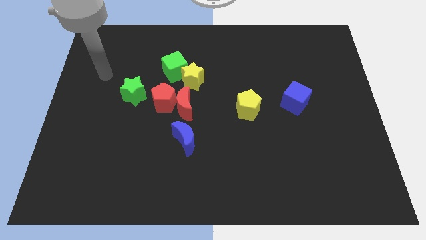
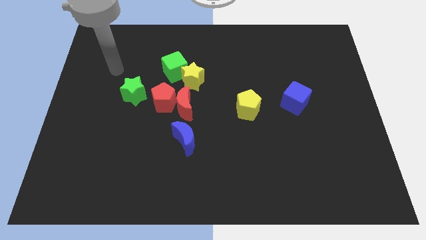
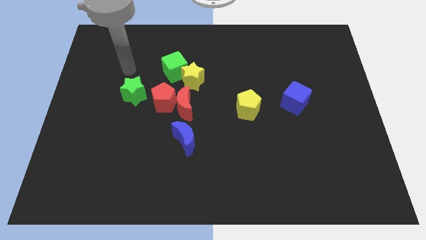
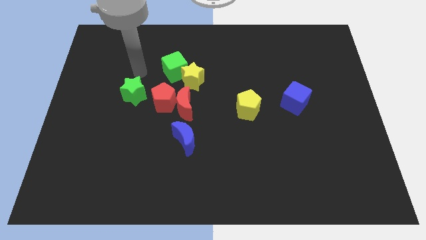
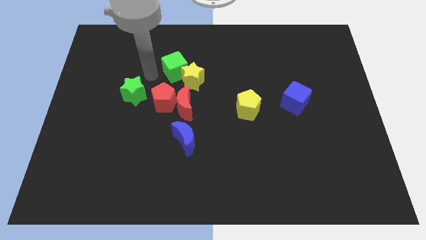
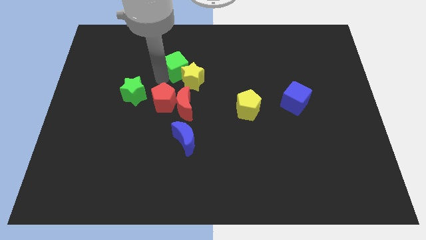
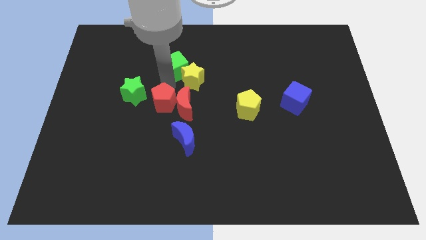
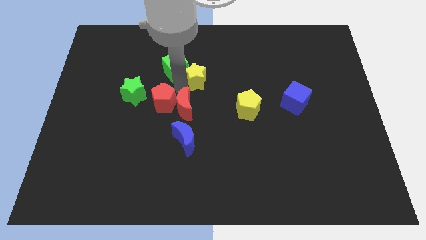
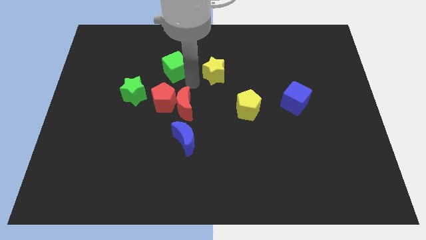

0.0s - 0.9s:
pull the green cube apart from the yellow star

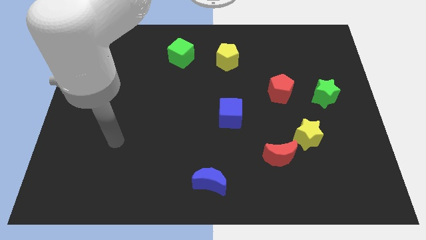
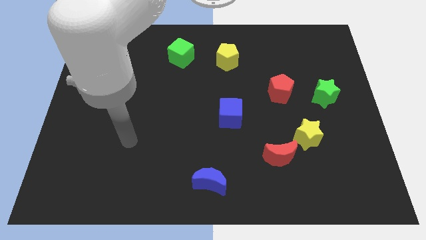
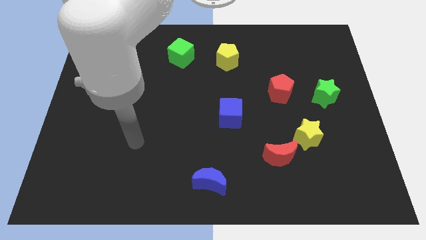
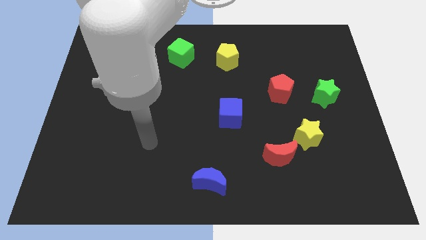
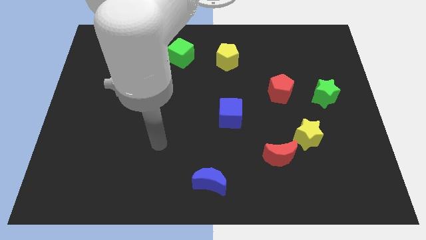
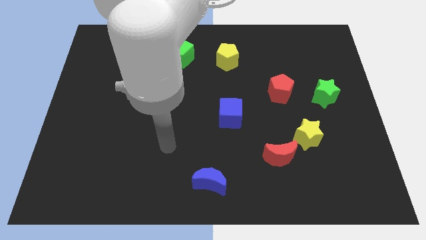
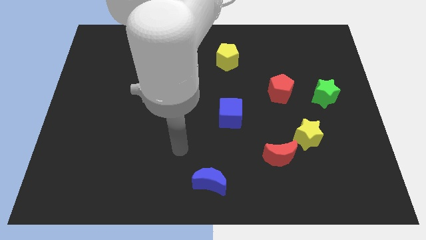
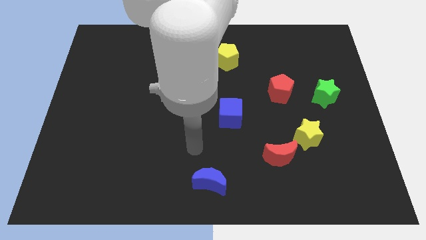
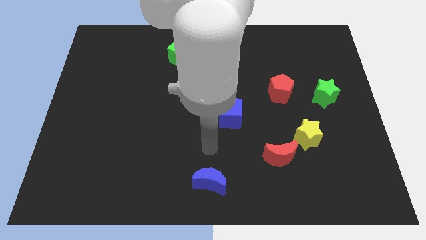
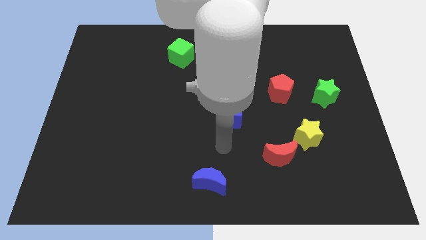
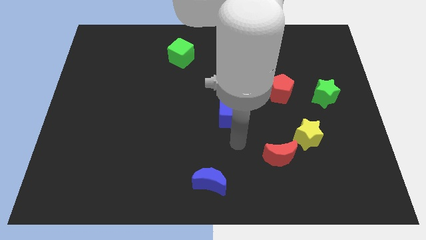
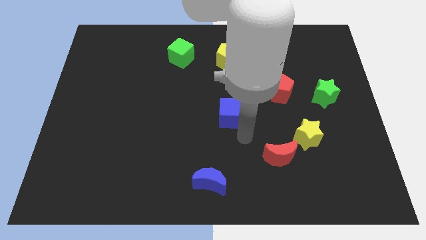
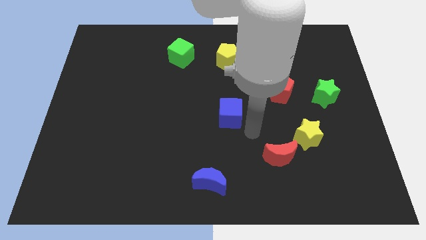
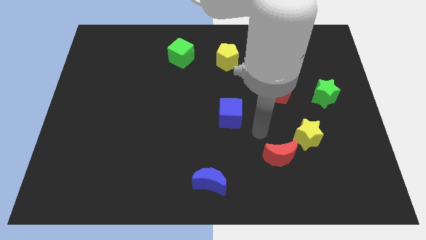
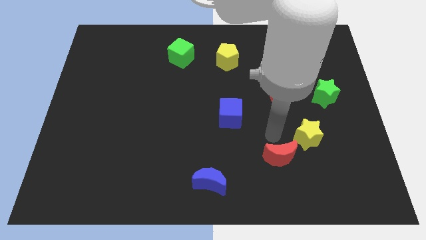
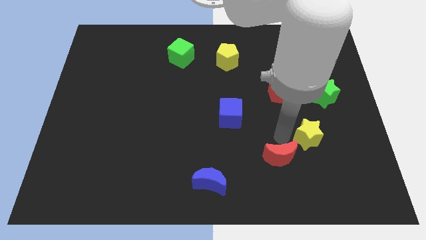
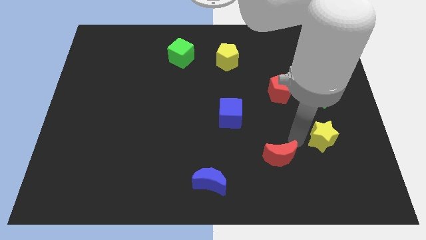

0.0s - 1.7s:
move the red moon away from the yellow star

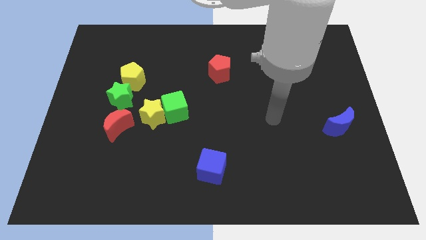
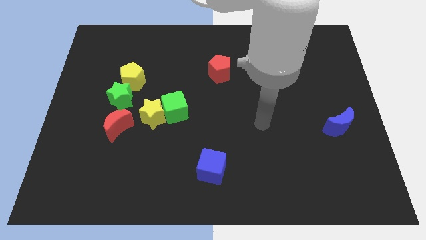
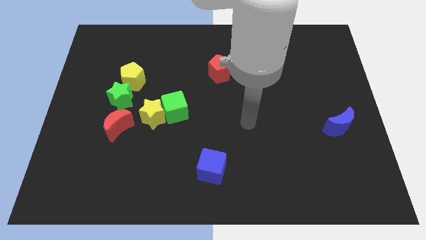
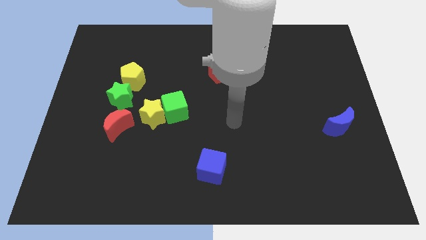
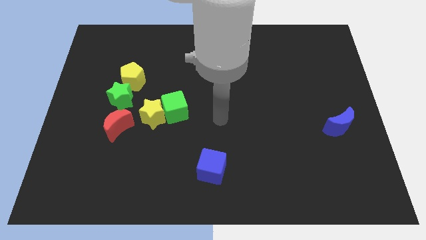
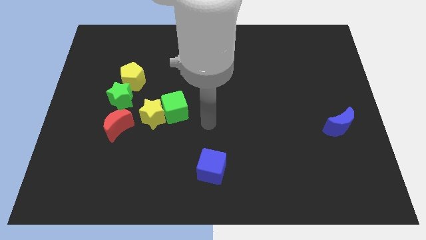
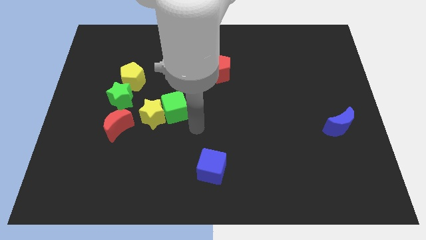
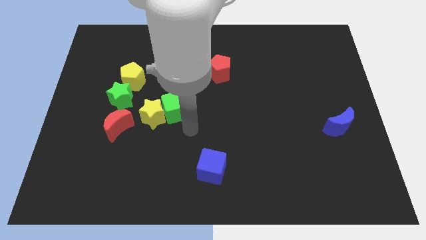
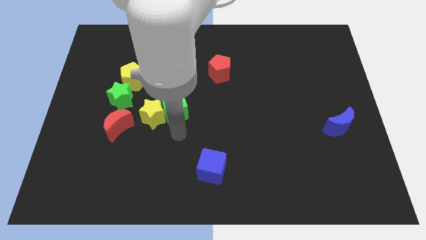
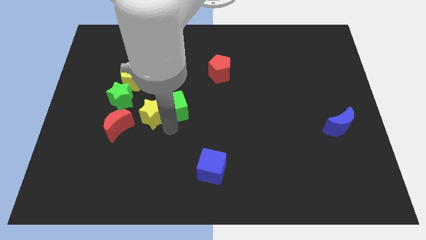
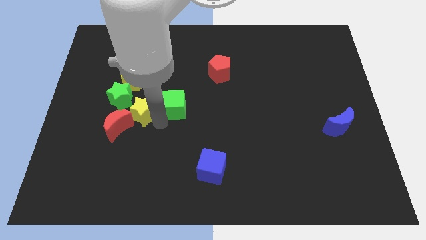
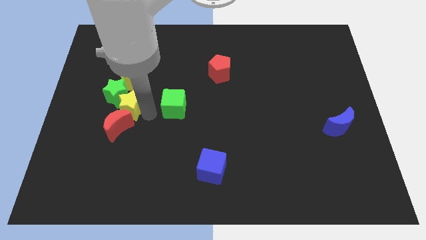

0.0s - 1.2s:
move the green cube away from the yellow star

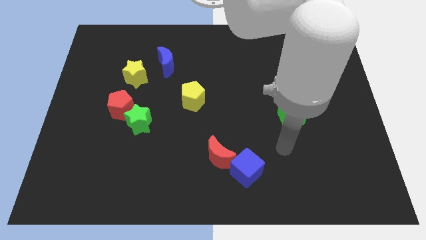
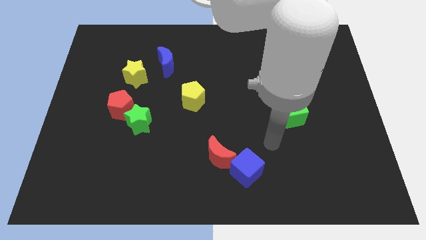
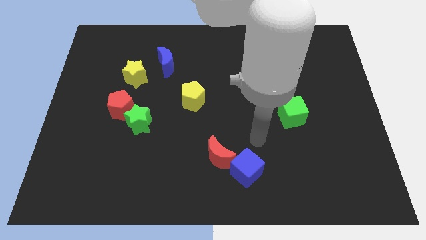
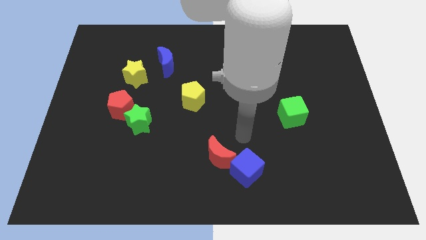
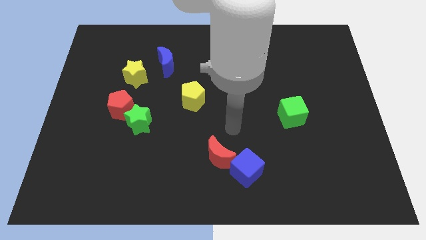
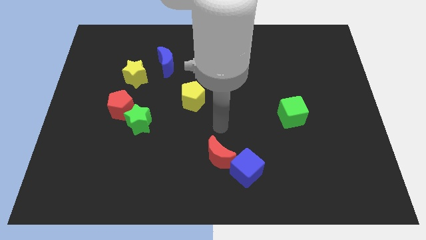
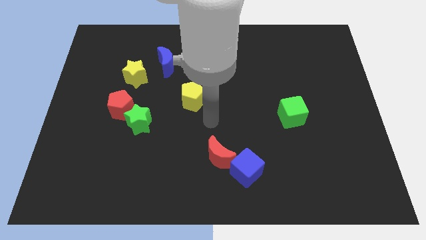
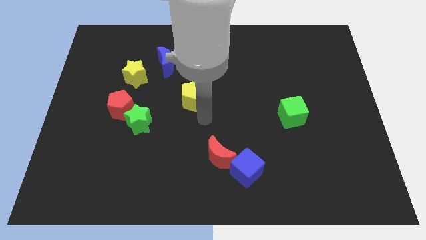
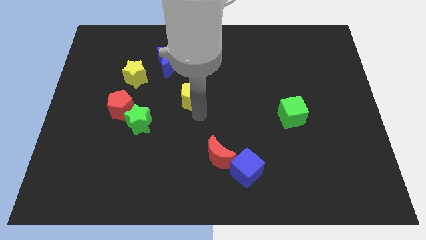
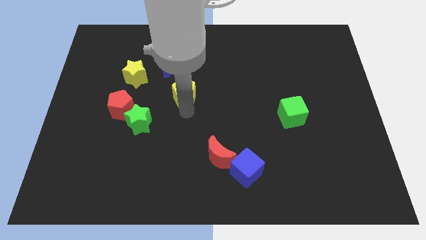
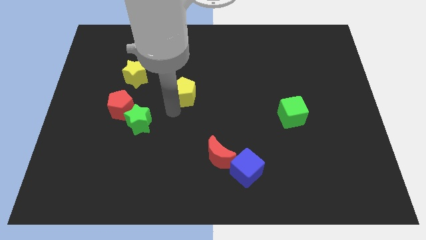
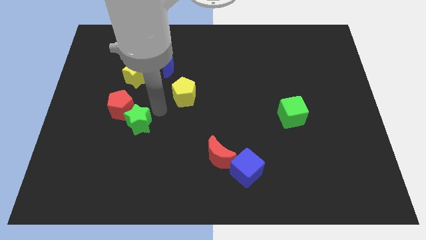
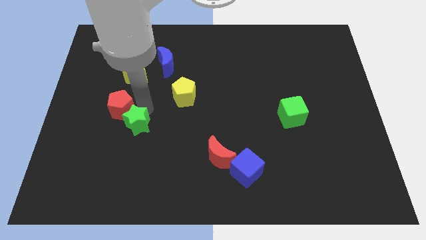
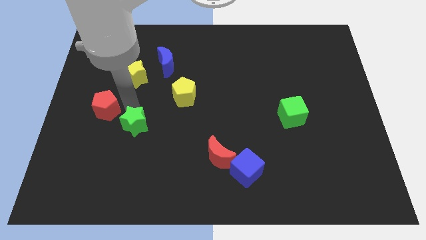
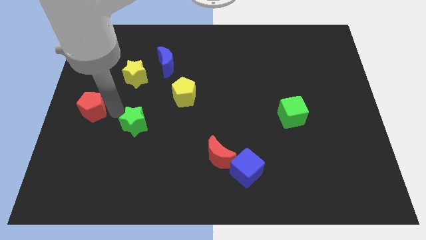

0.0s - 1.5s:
pull the green star apart from the red pentagon

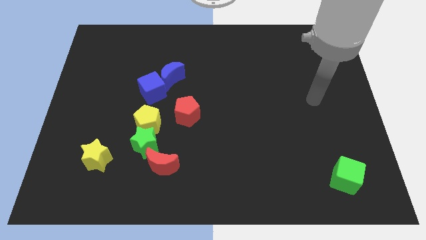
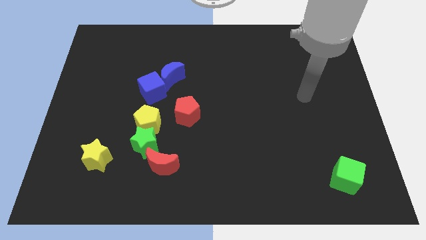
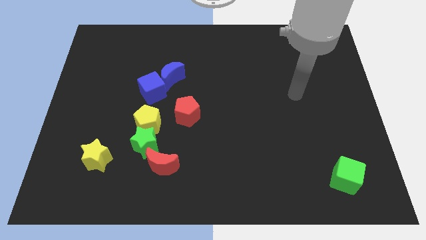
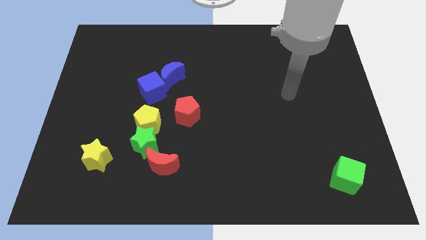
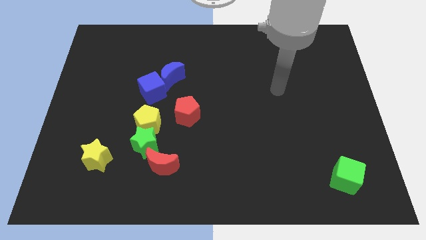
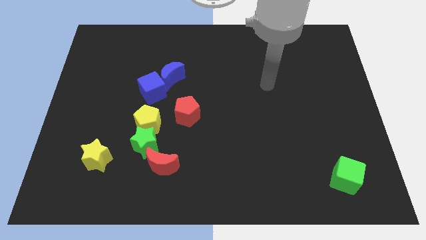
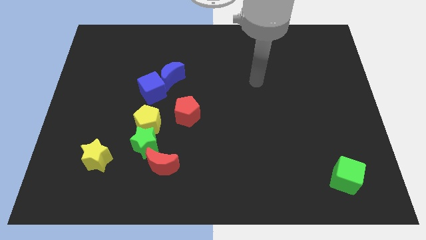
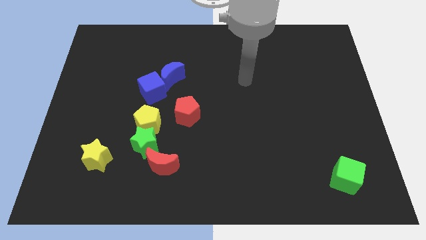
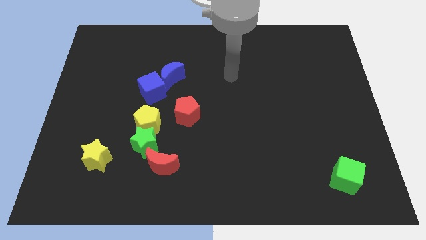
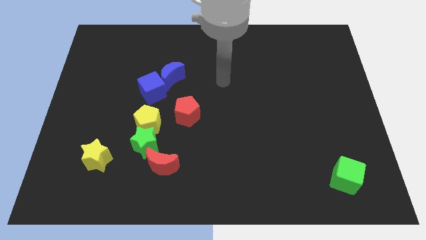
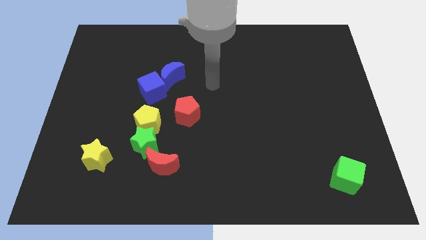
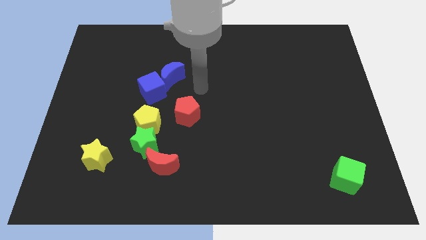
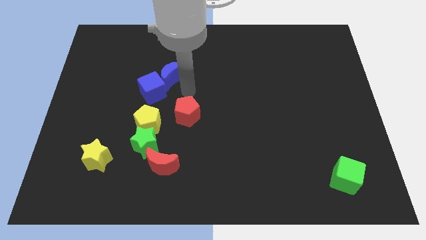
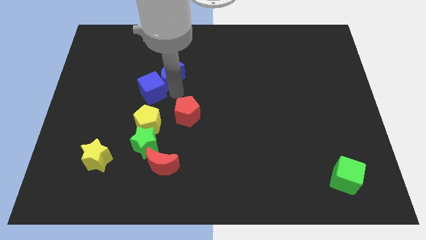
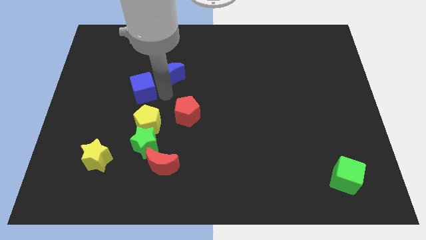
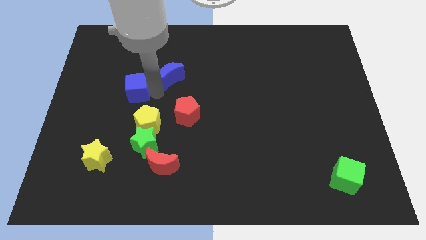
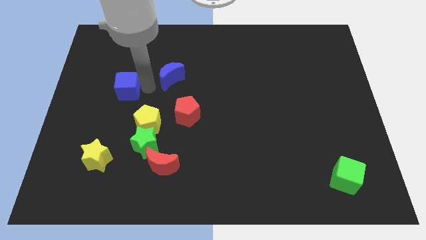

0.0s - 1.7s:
move the blue moon away from the blue cube

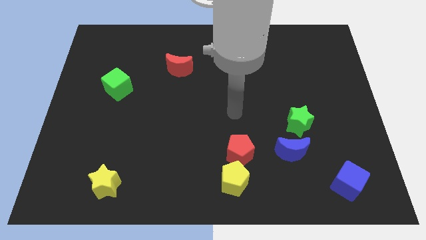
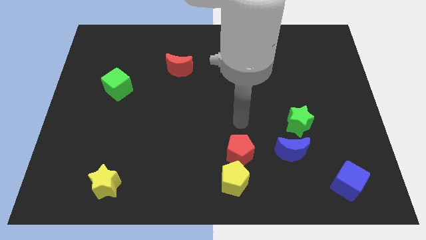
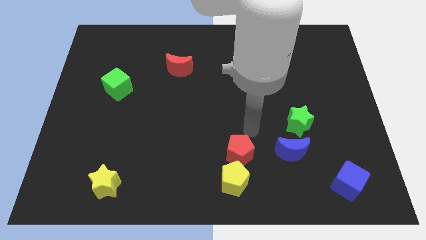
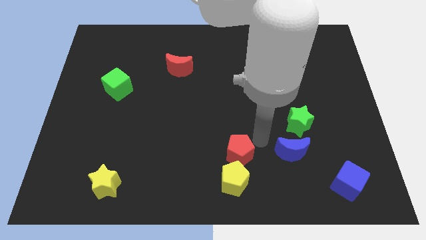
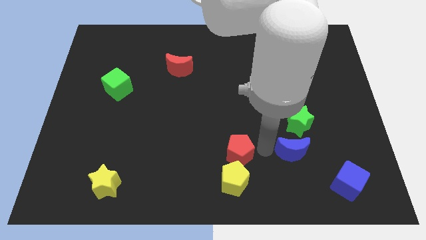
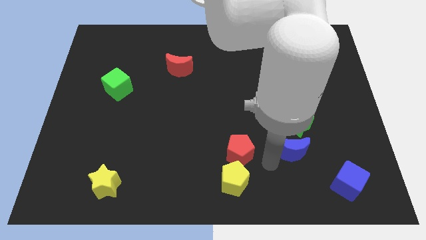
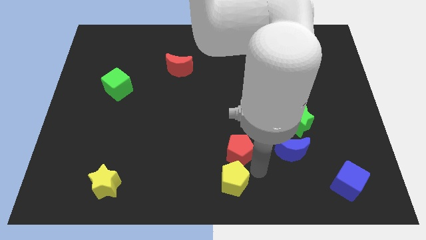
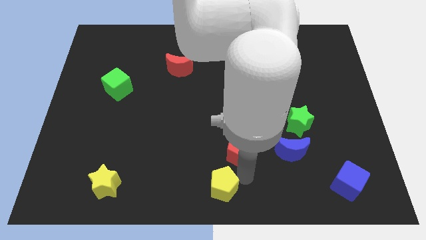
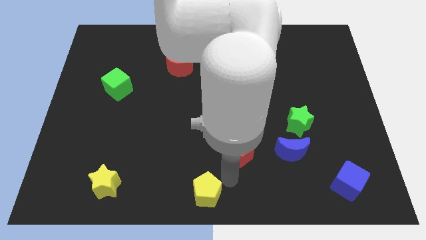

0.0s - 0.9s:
pull the red pentagon apart from the yellow pentagon

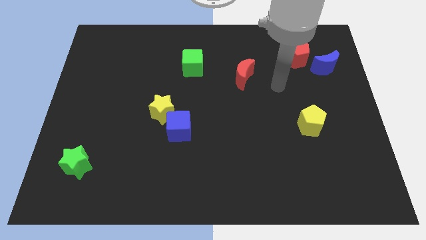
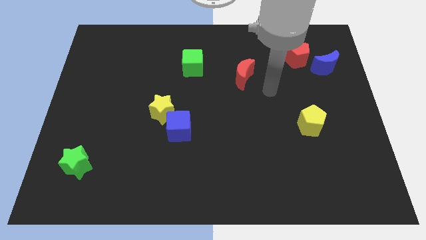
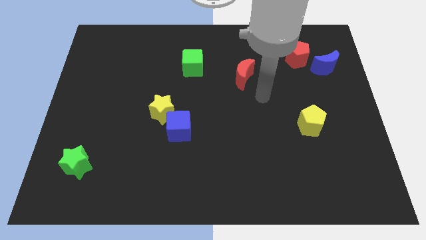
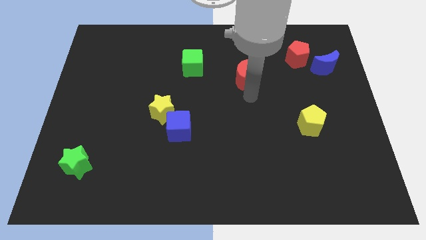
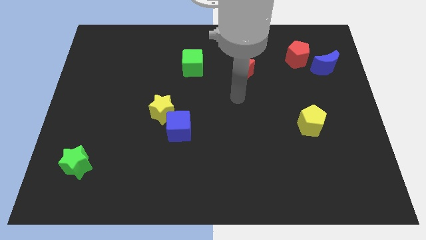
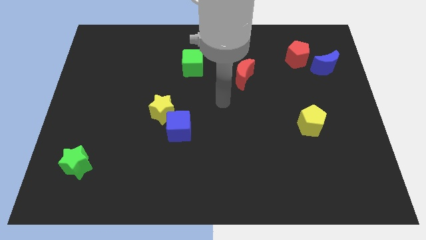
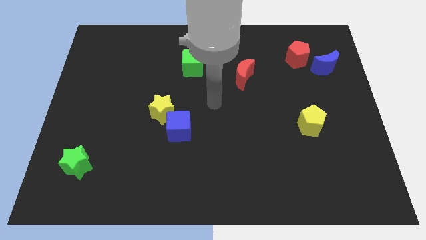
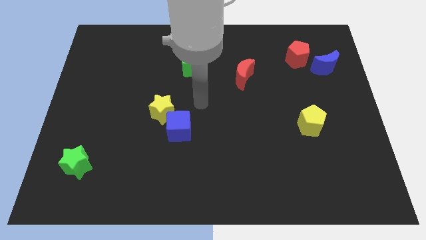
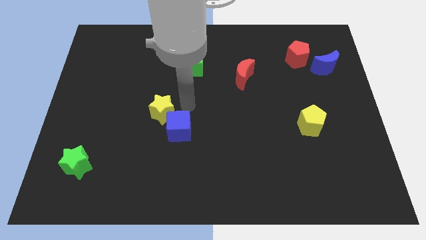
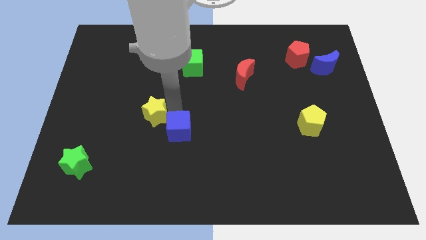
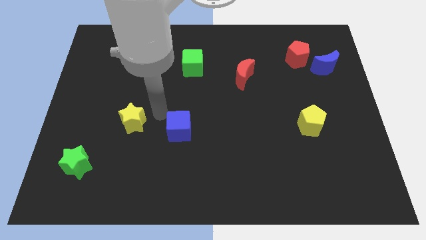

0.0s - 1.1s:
pull the blue cube apart from the yellow star

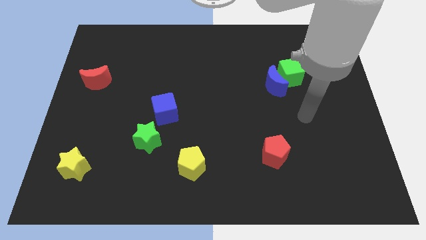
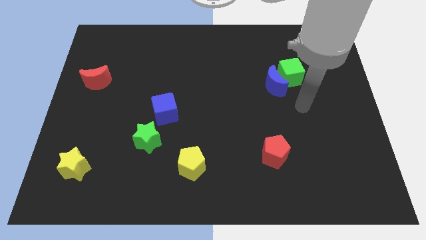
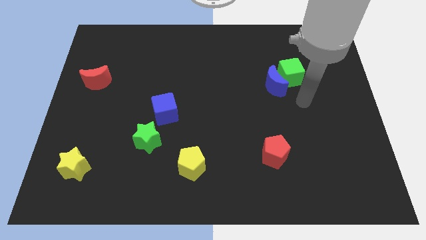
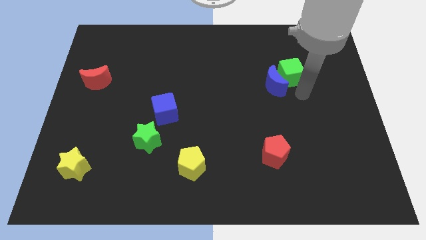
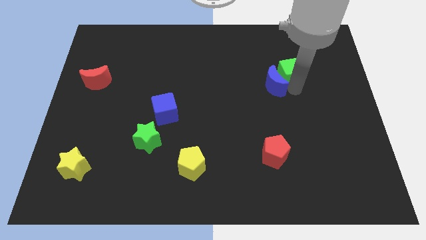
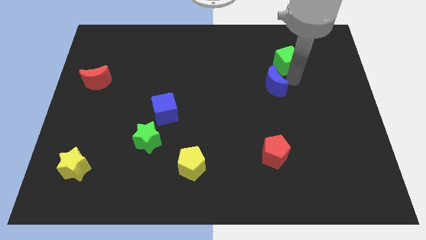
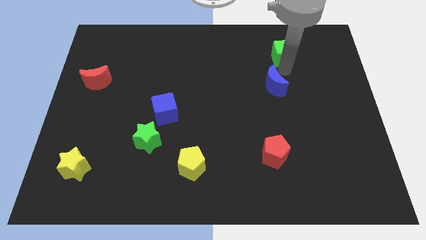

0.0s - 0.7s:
separate the blue moon from the green cube
